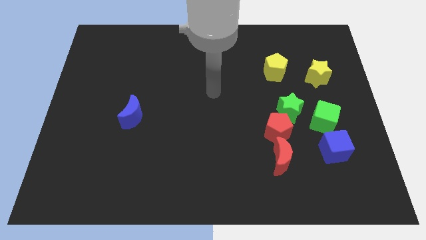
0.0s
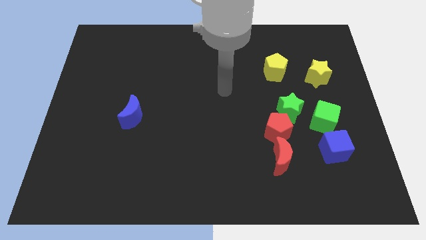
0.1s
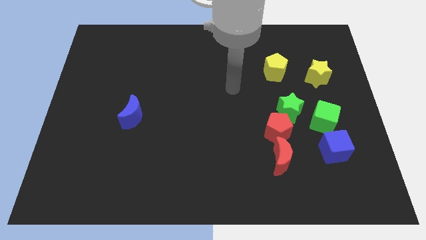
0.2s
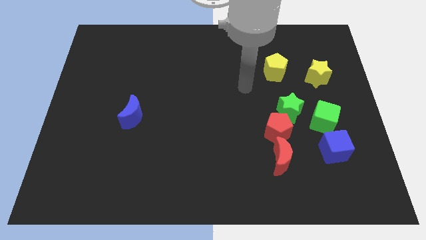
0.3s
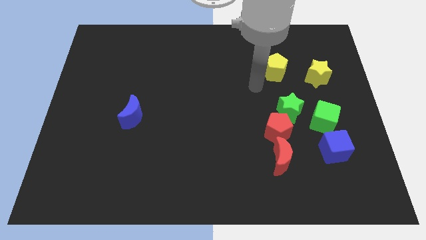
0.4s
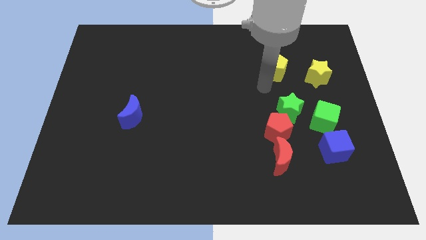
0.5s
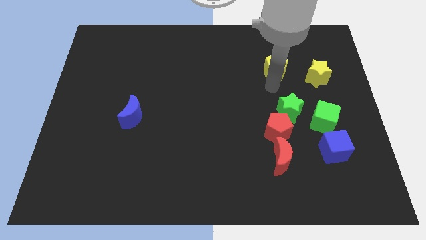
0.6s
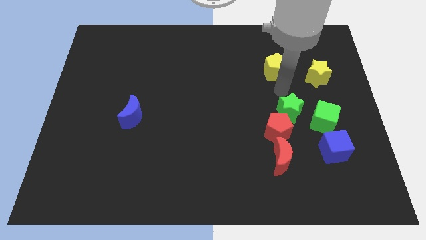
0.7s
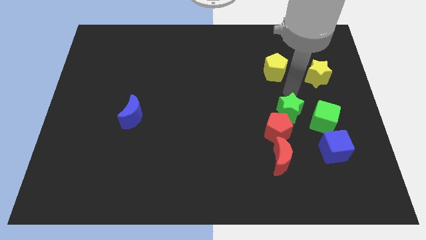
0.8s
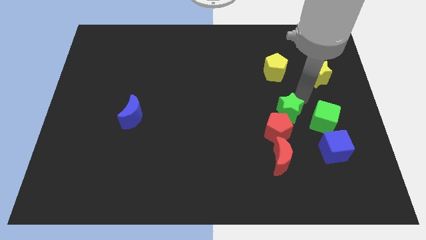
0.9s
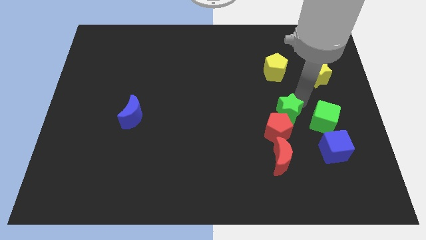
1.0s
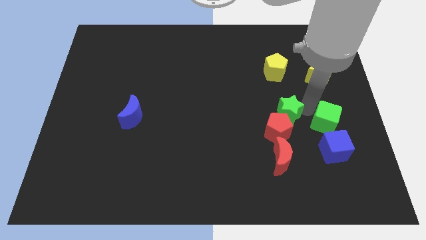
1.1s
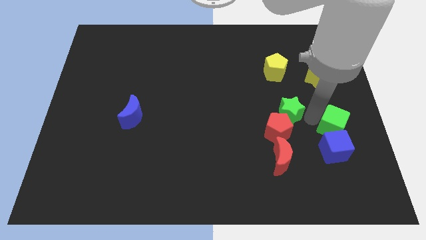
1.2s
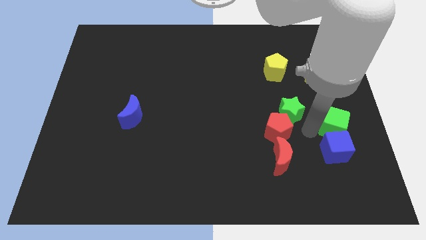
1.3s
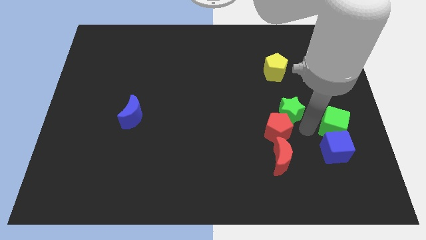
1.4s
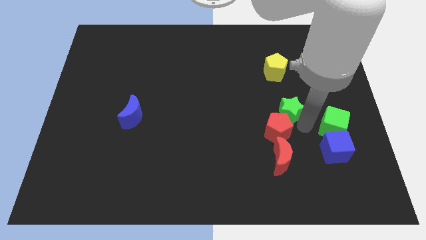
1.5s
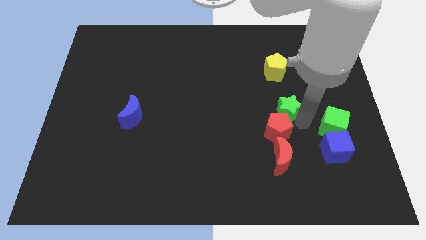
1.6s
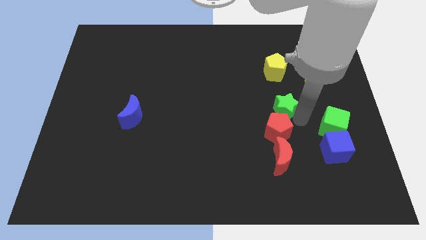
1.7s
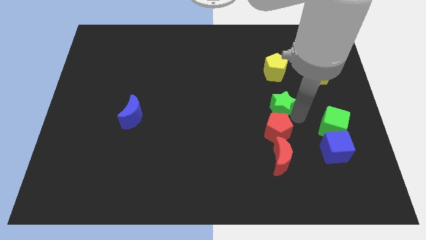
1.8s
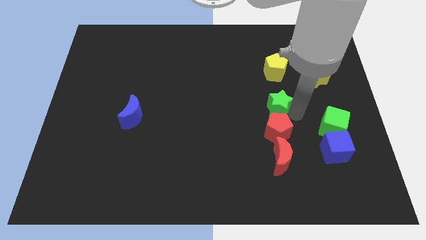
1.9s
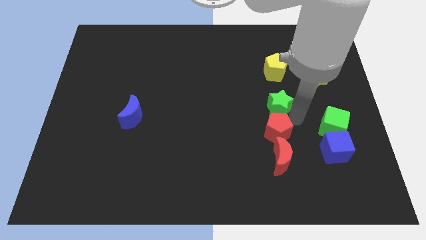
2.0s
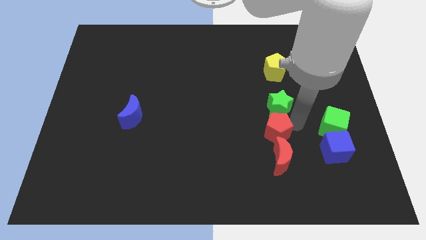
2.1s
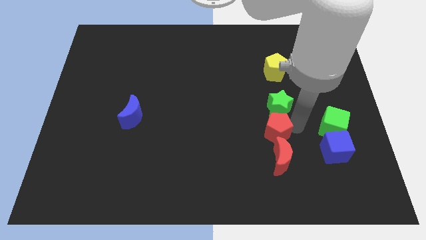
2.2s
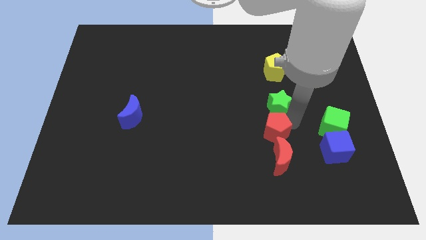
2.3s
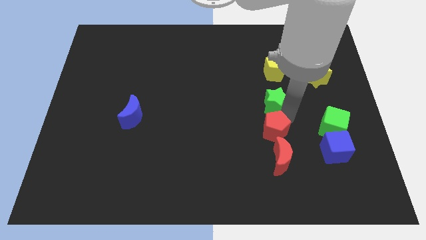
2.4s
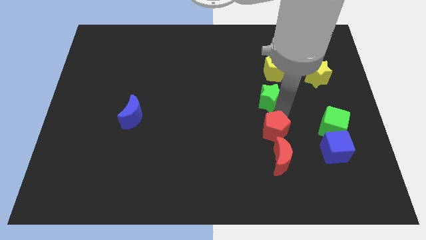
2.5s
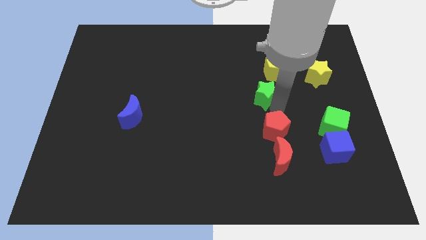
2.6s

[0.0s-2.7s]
slightly slide the green star upwards and then to the left

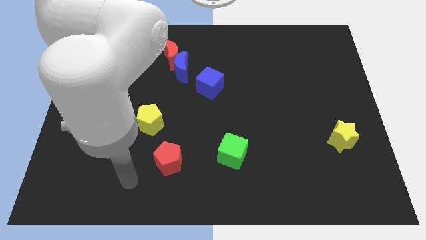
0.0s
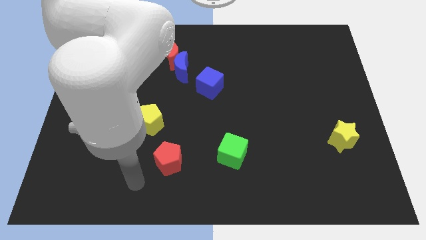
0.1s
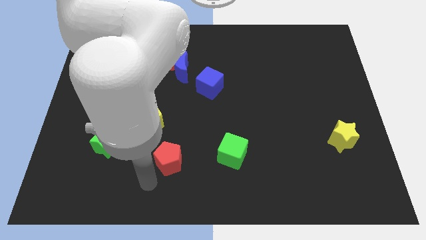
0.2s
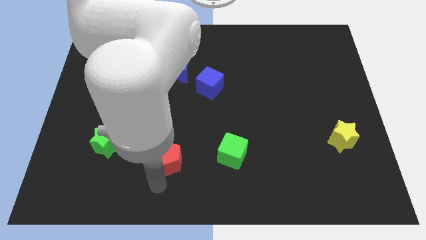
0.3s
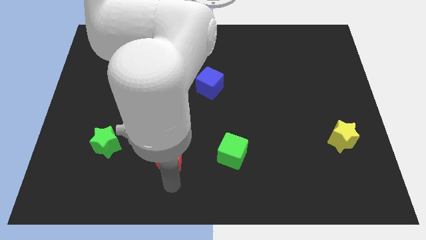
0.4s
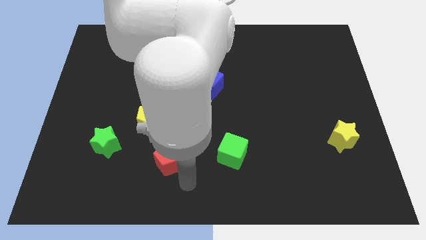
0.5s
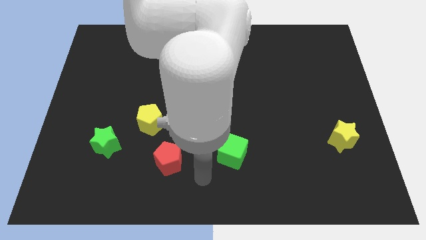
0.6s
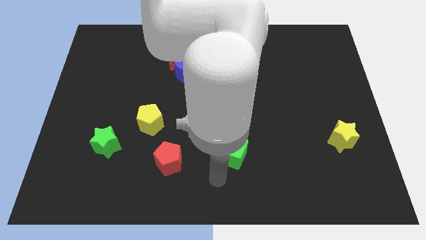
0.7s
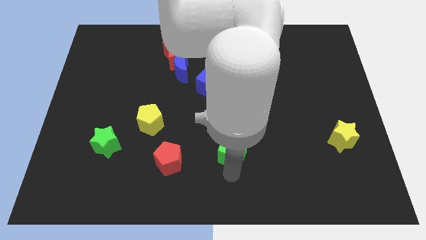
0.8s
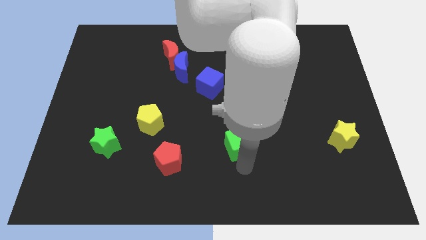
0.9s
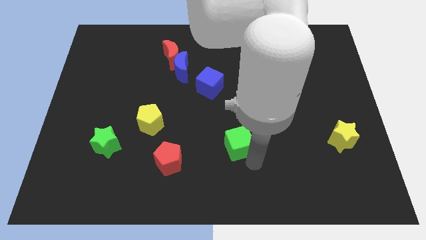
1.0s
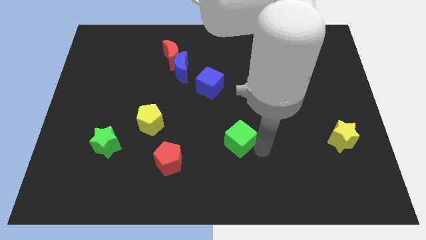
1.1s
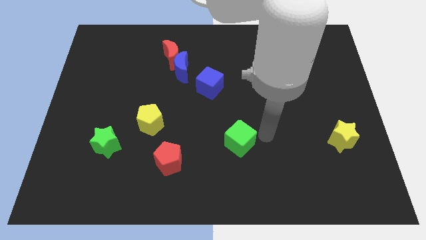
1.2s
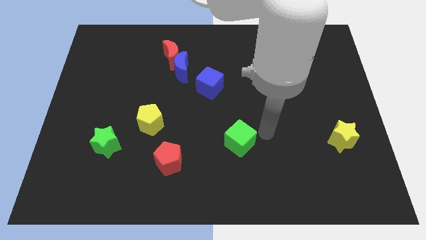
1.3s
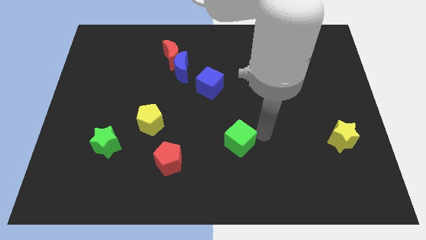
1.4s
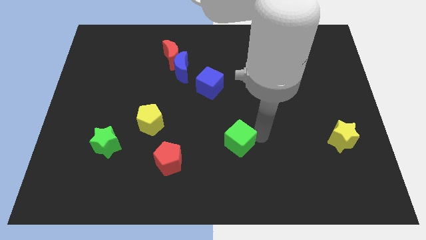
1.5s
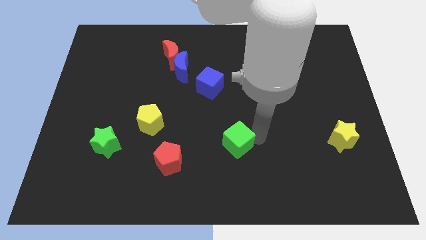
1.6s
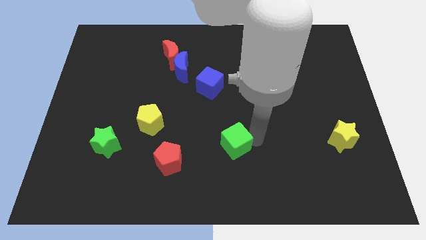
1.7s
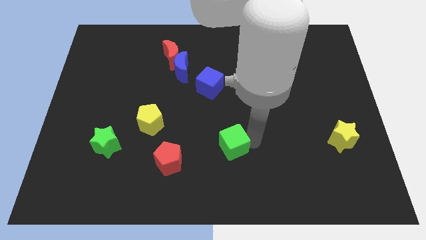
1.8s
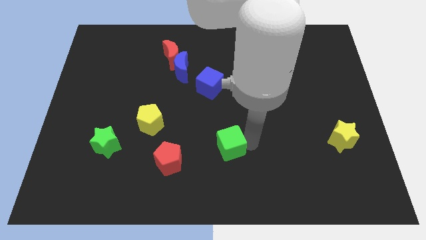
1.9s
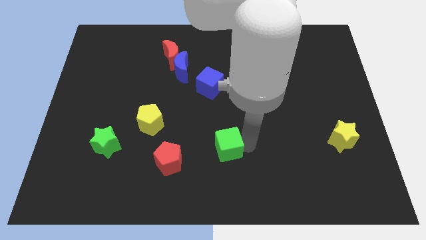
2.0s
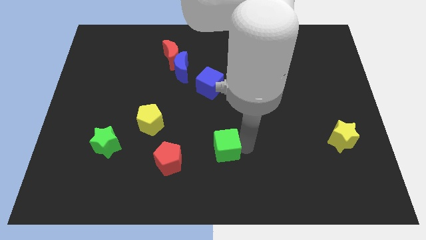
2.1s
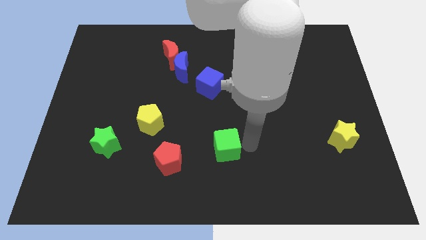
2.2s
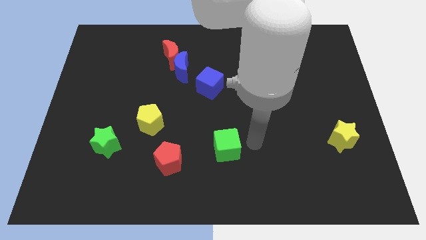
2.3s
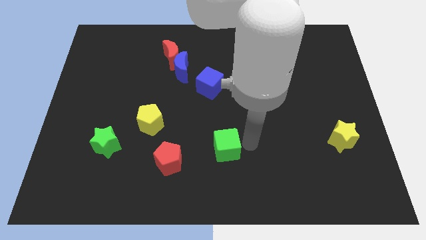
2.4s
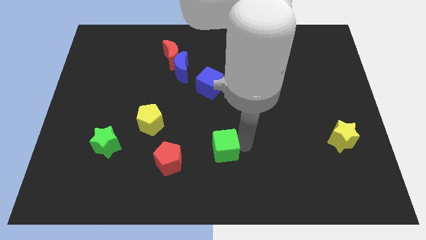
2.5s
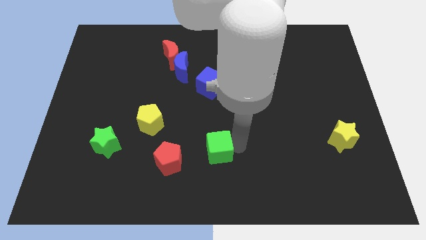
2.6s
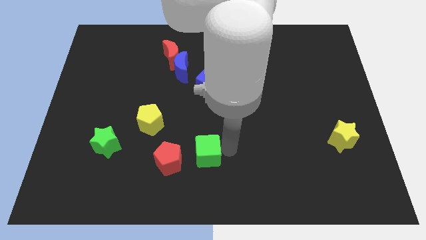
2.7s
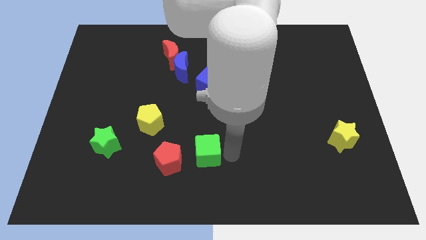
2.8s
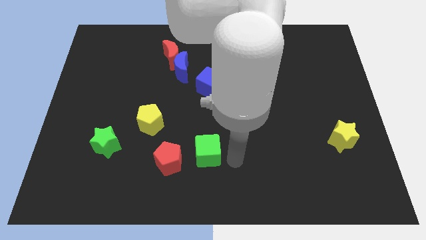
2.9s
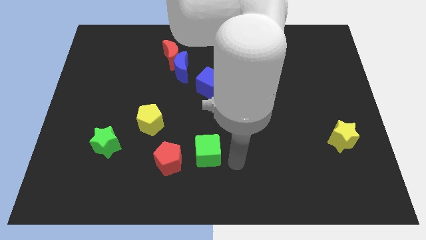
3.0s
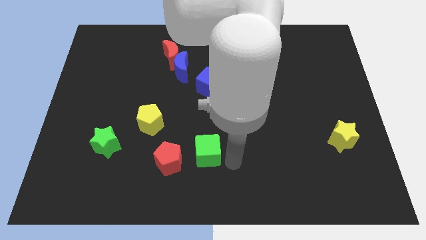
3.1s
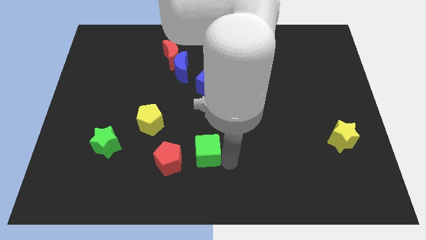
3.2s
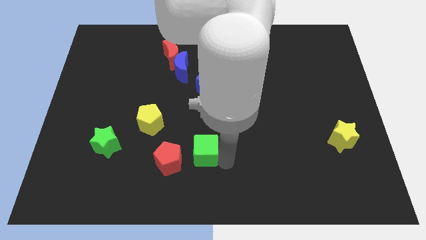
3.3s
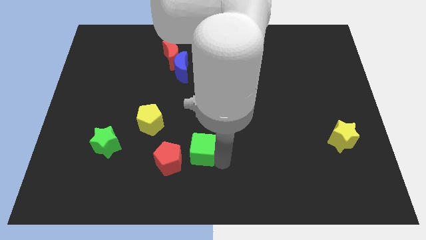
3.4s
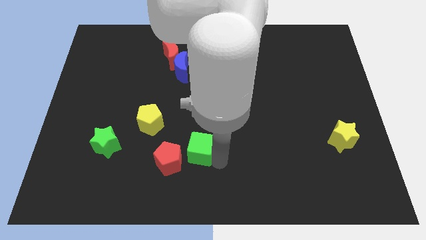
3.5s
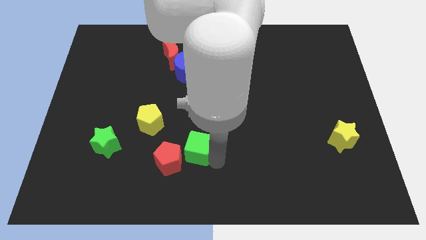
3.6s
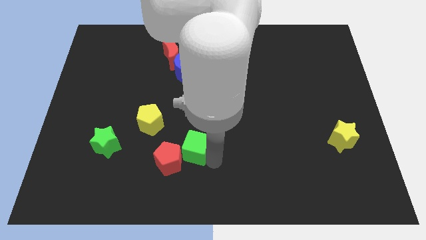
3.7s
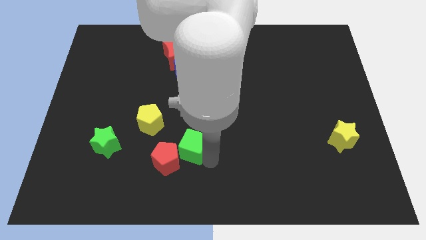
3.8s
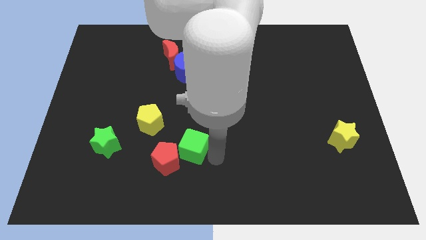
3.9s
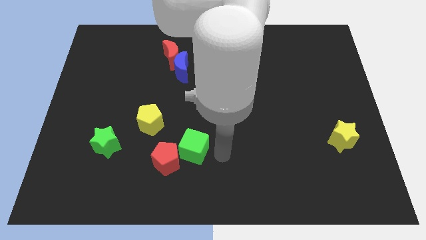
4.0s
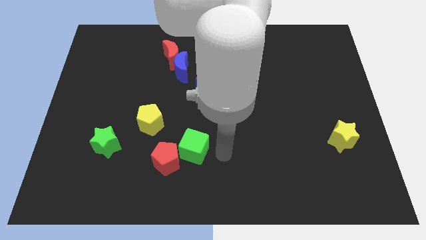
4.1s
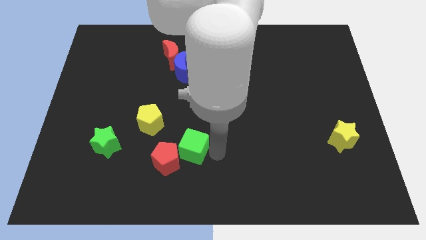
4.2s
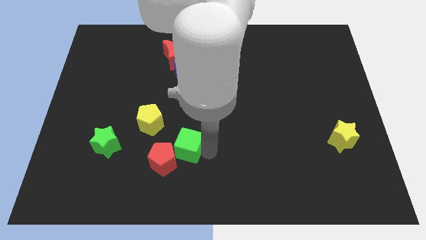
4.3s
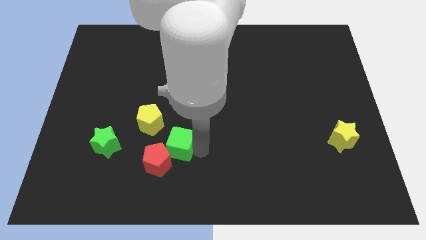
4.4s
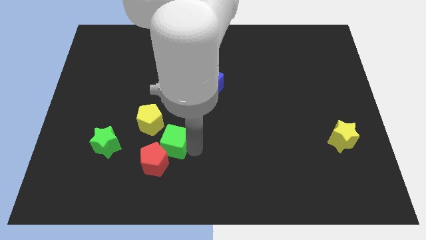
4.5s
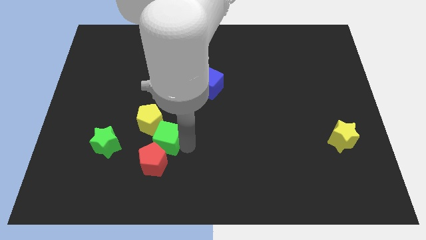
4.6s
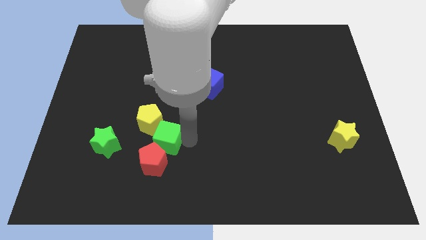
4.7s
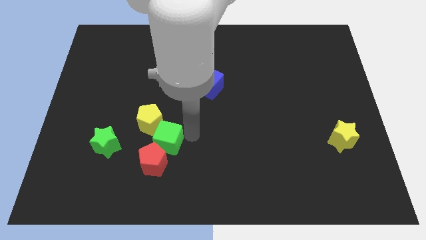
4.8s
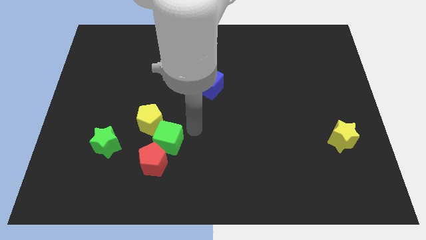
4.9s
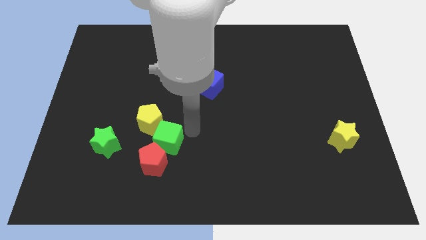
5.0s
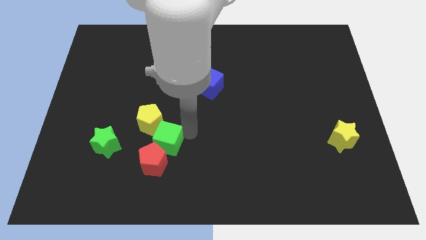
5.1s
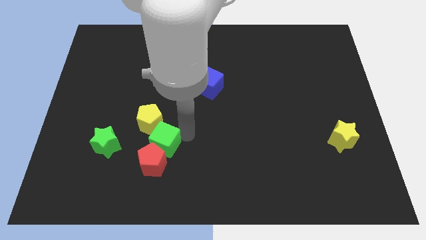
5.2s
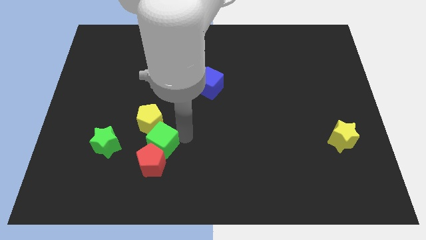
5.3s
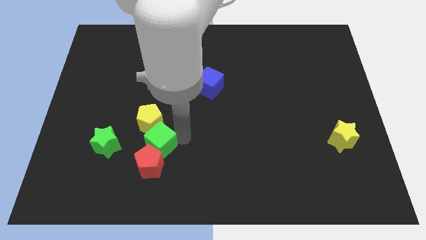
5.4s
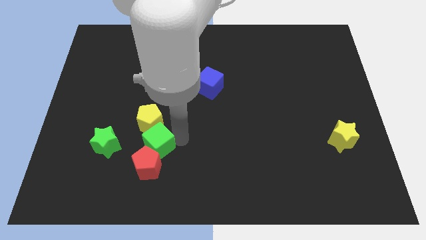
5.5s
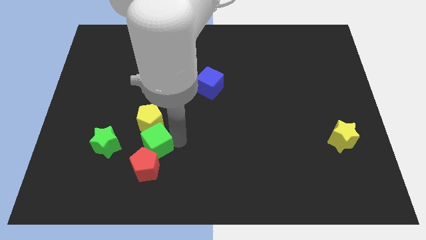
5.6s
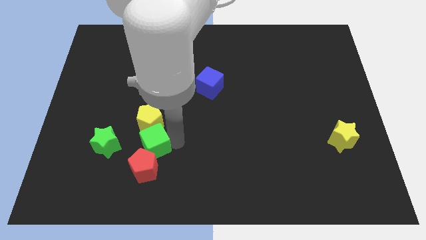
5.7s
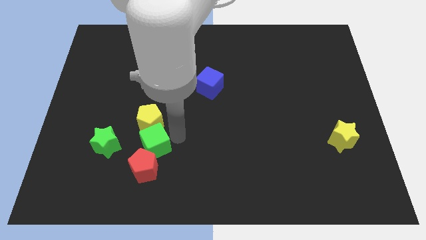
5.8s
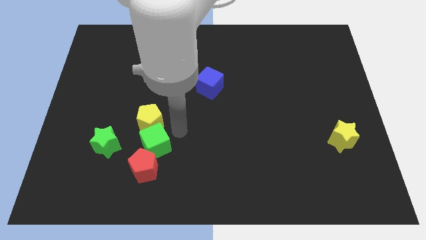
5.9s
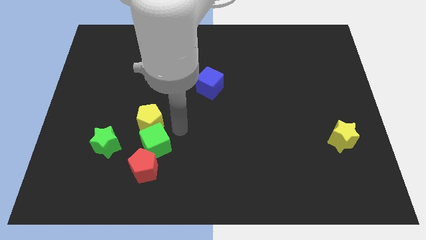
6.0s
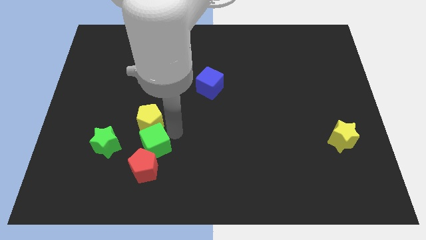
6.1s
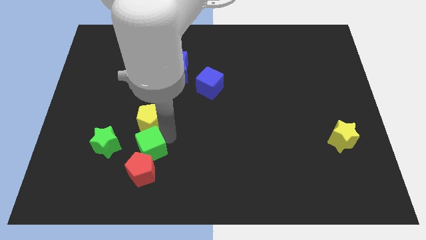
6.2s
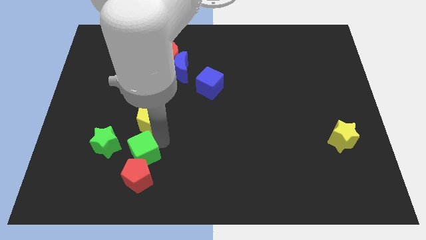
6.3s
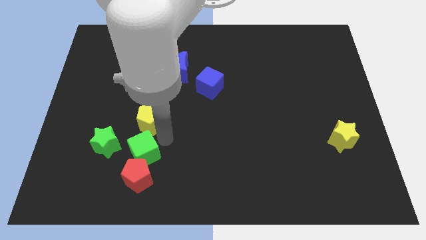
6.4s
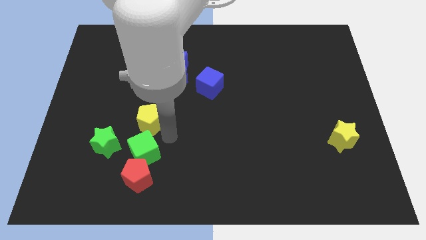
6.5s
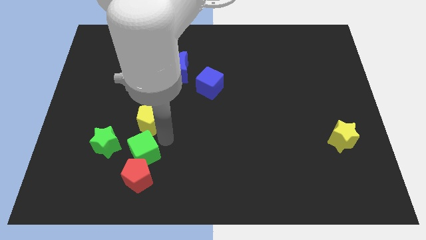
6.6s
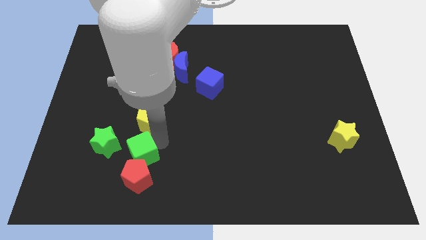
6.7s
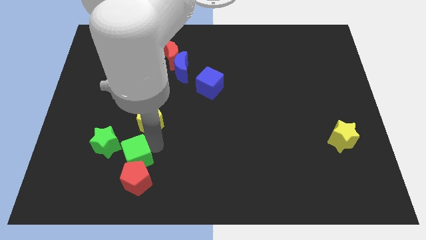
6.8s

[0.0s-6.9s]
move the green cube left
